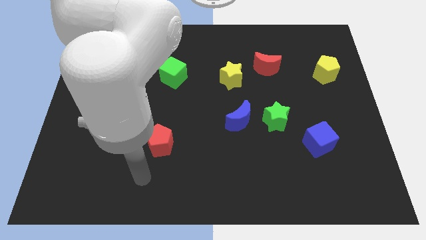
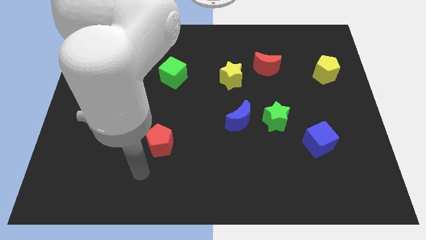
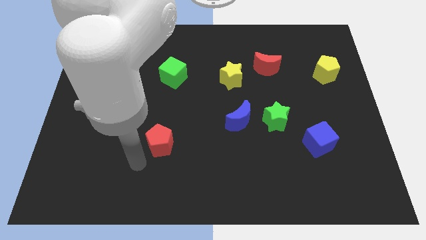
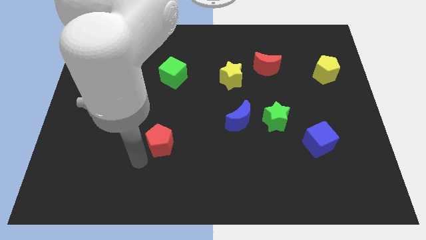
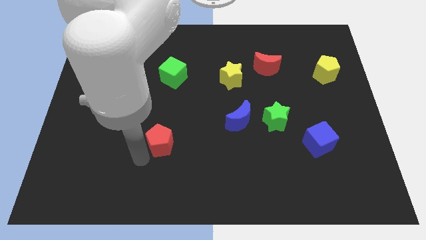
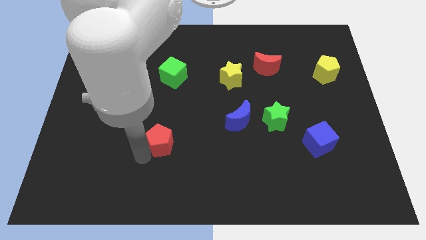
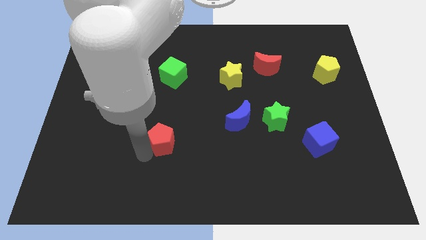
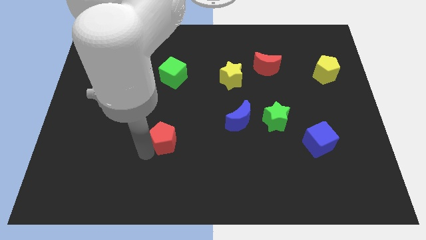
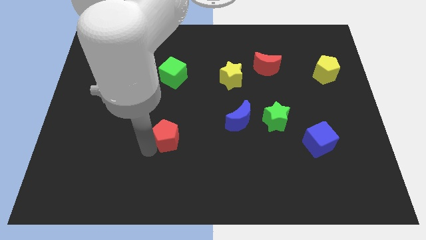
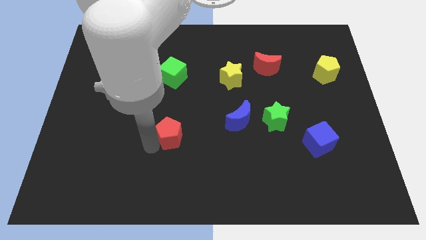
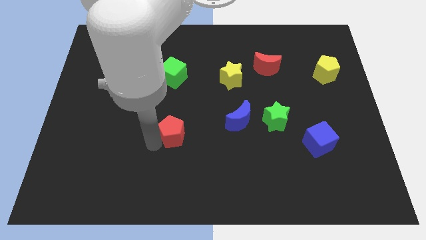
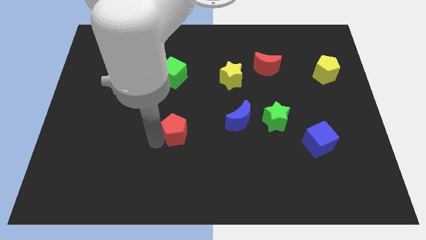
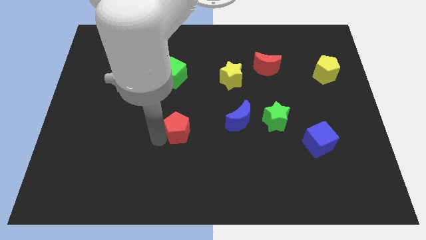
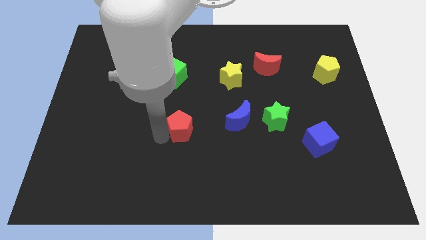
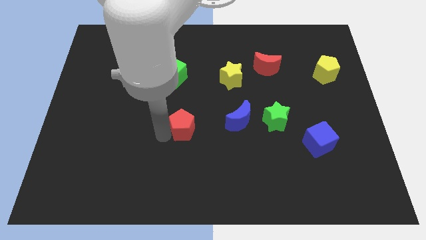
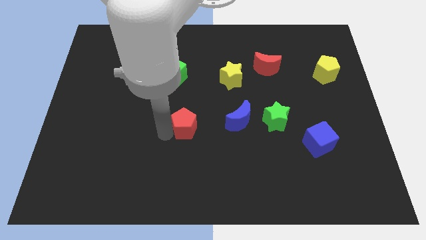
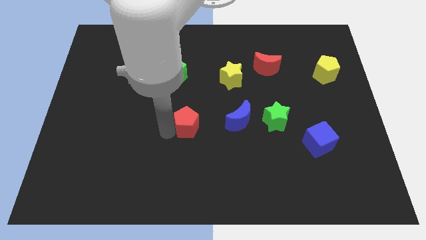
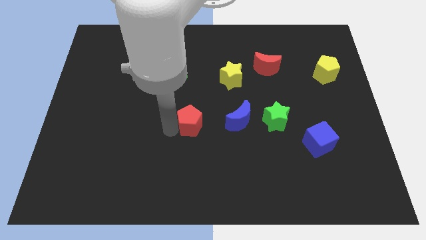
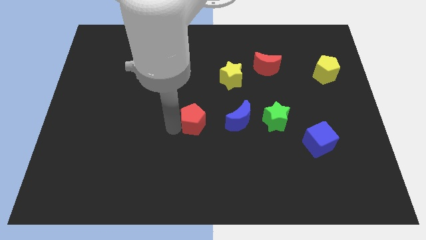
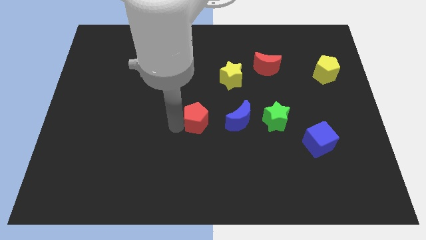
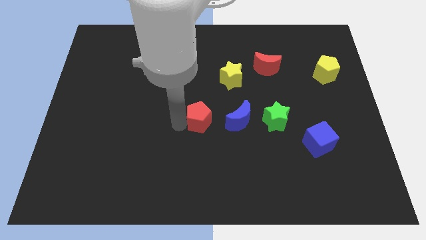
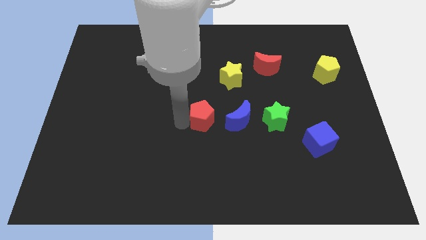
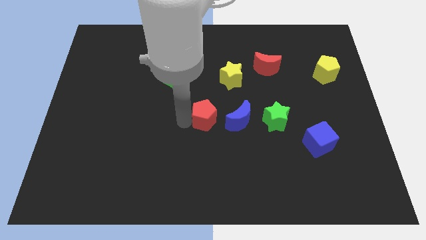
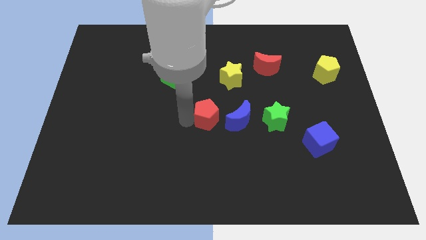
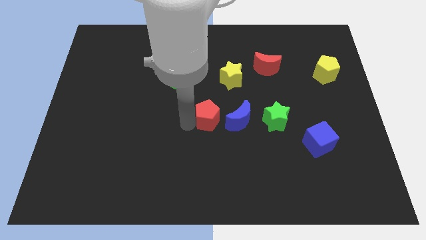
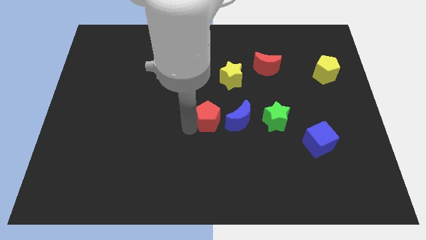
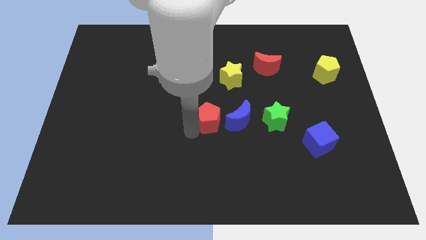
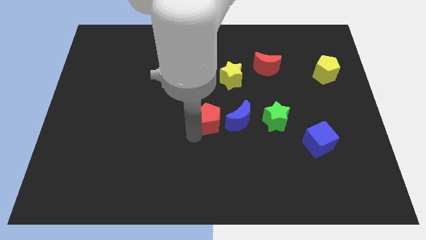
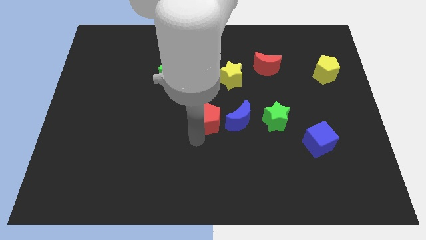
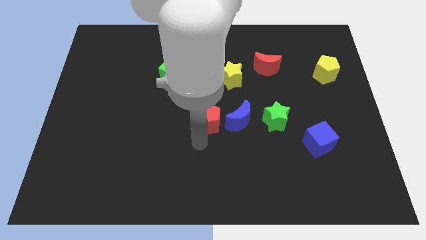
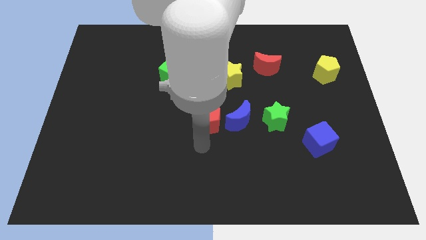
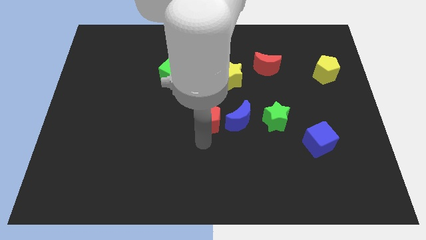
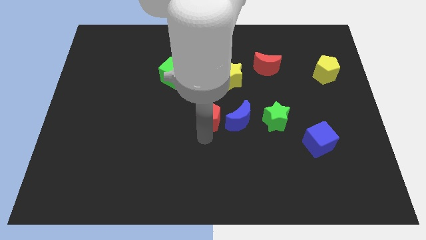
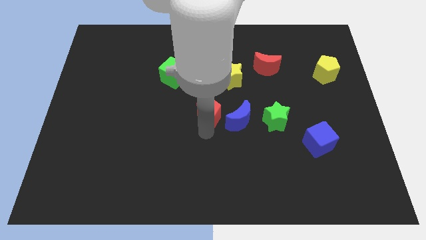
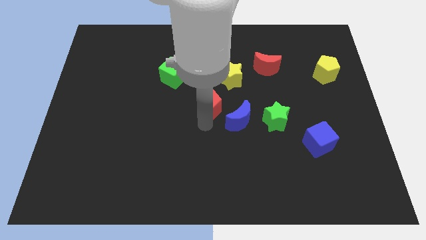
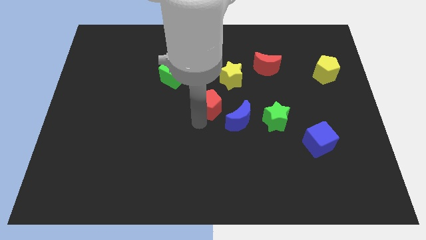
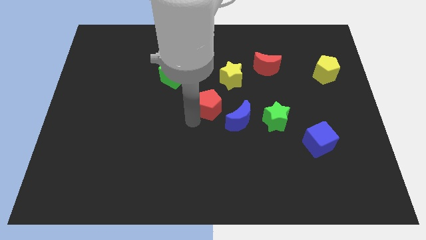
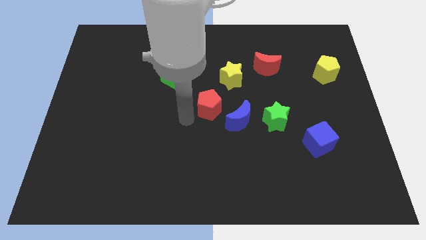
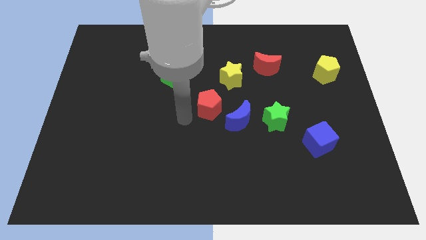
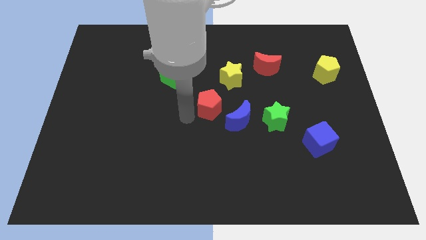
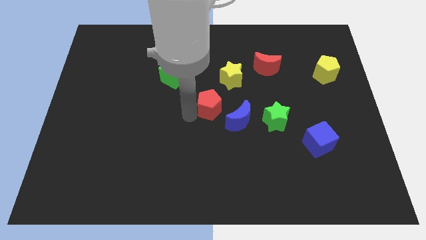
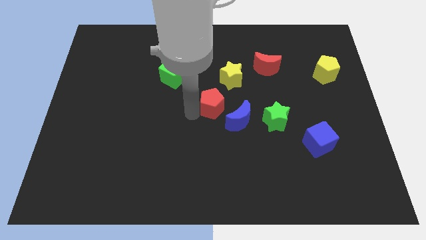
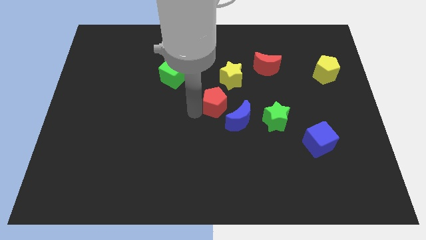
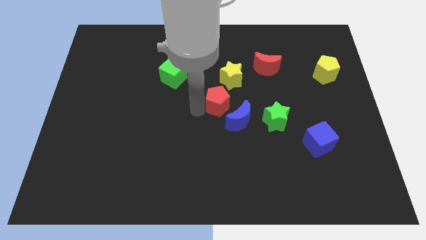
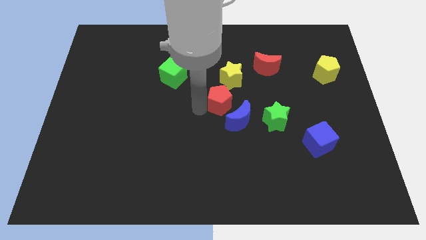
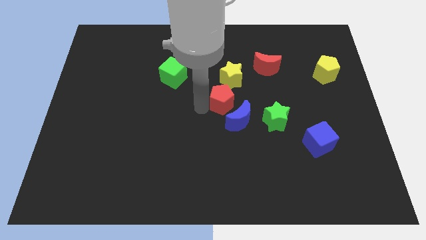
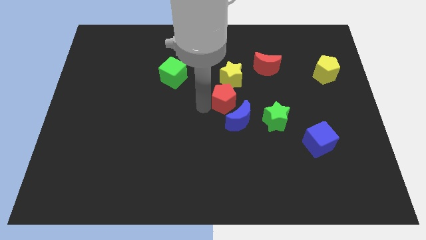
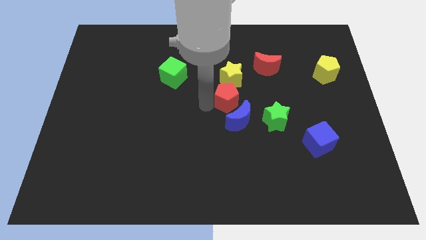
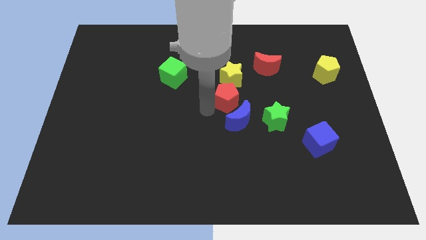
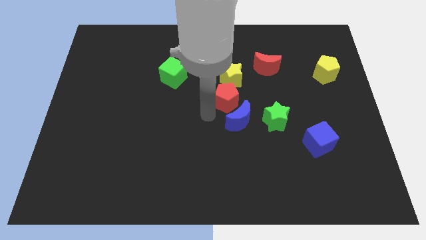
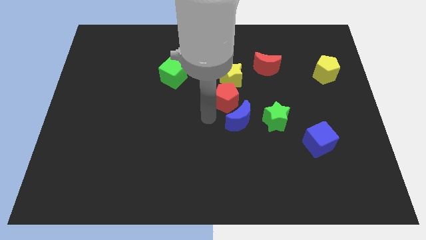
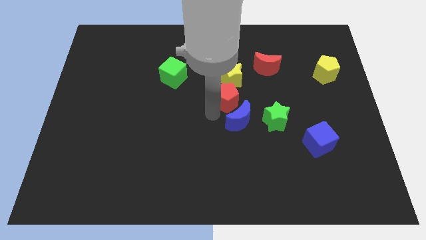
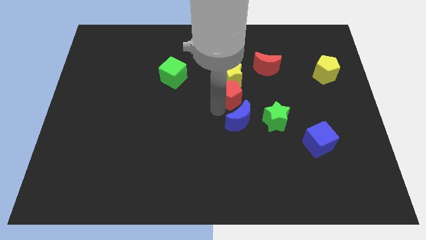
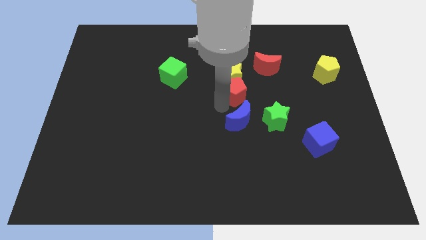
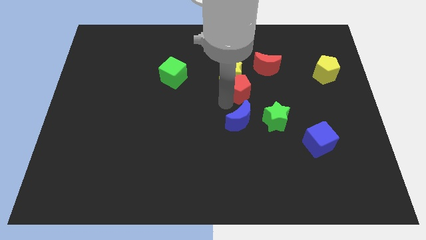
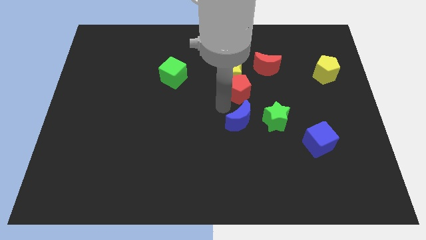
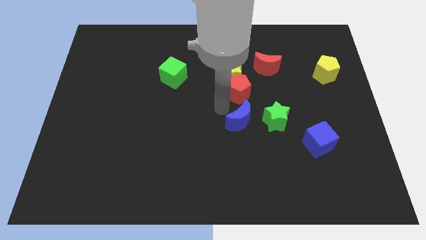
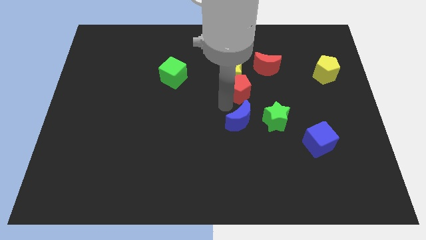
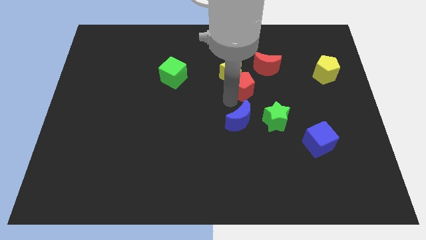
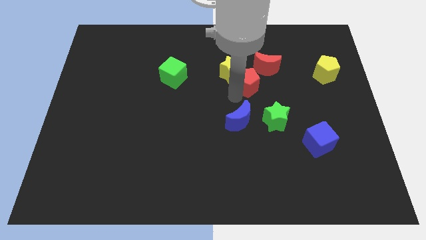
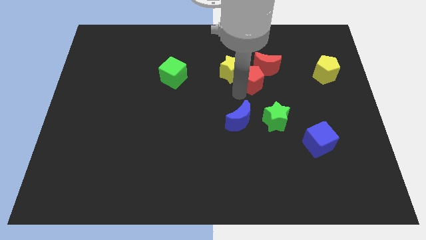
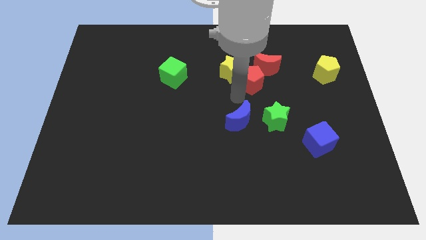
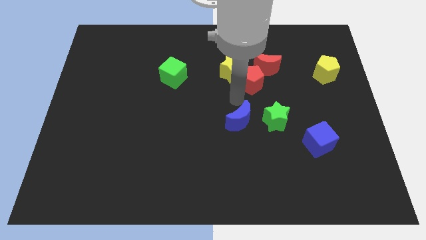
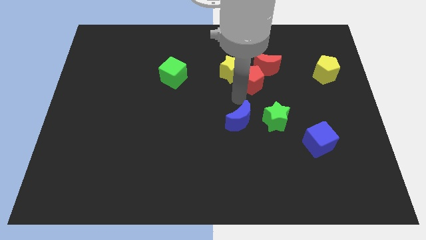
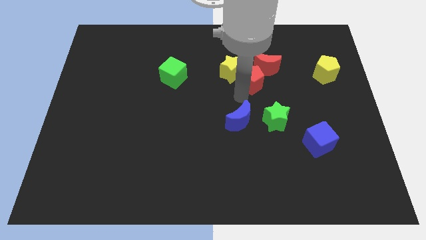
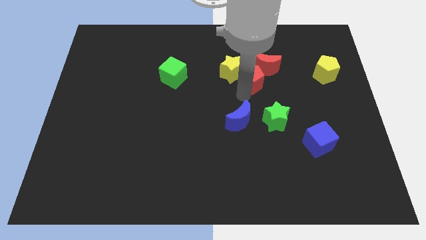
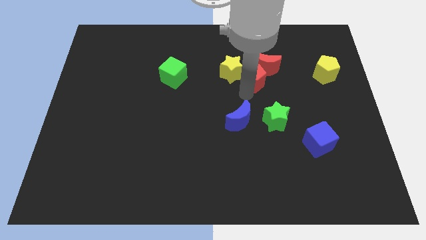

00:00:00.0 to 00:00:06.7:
push the red pentagon to the red moon
